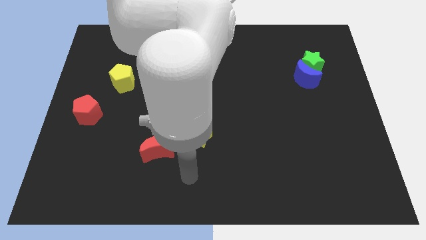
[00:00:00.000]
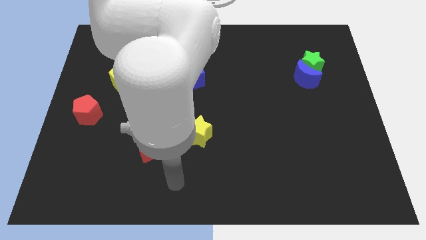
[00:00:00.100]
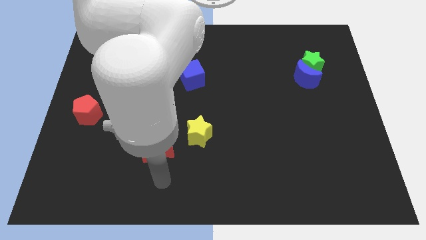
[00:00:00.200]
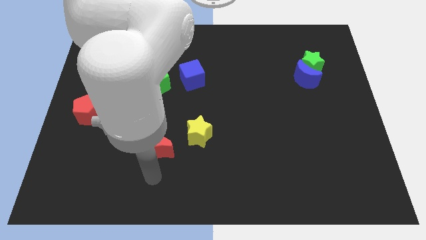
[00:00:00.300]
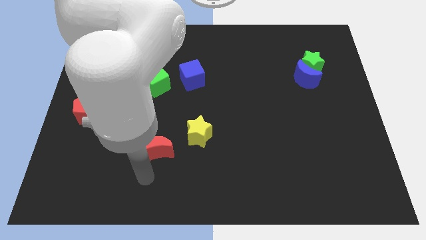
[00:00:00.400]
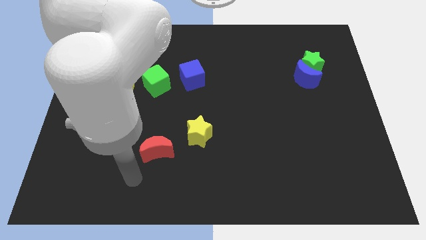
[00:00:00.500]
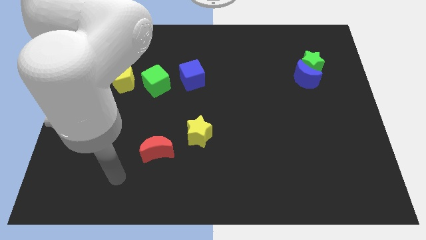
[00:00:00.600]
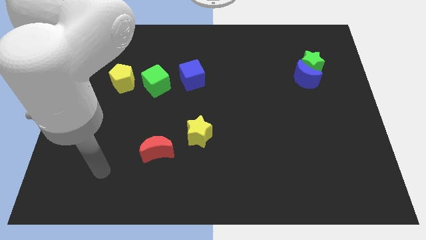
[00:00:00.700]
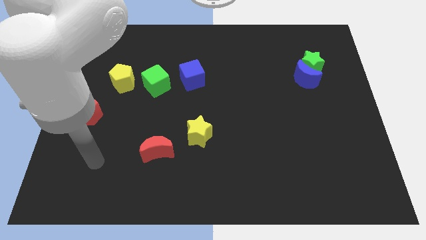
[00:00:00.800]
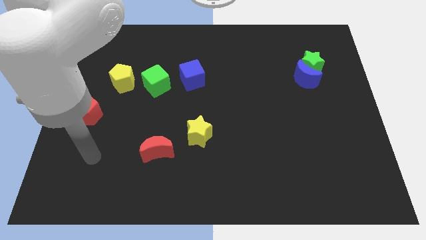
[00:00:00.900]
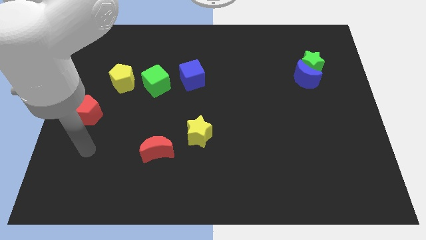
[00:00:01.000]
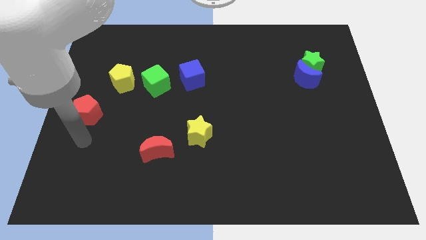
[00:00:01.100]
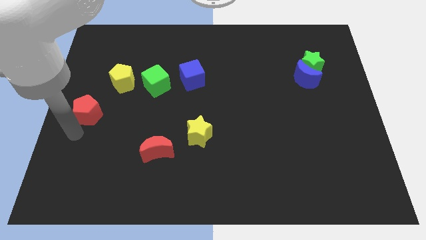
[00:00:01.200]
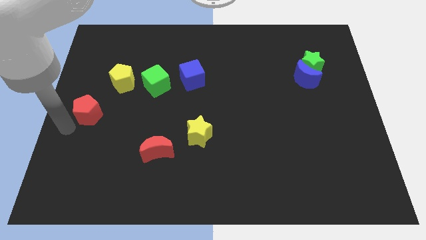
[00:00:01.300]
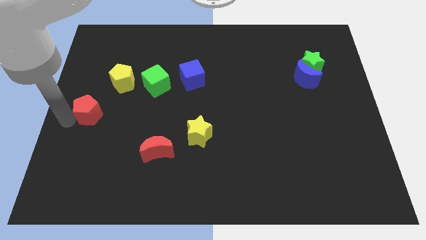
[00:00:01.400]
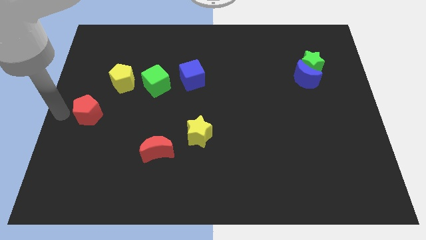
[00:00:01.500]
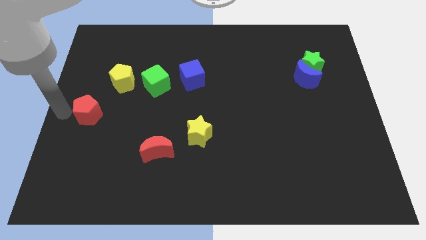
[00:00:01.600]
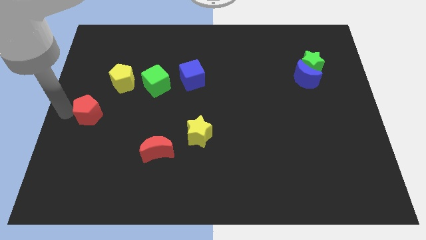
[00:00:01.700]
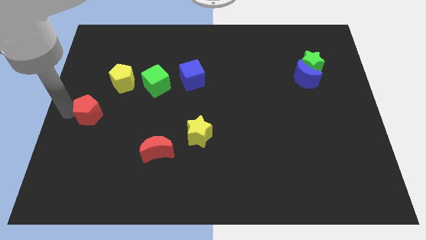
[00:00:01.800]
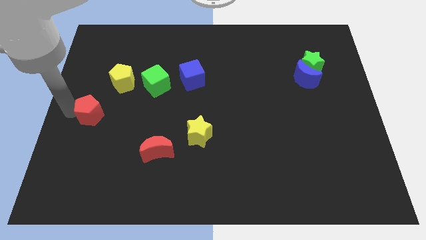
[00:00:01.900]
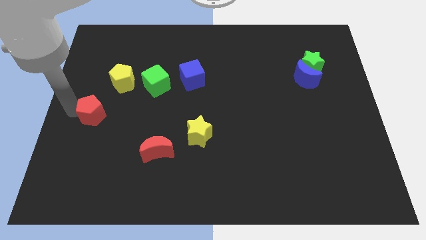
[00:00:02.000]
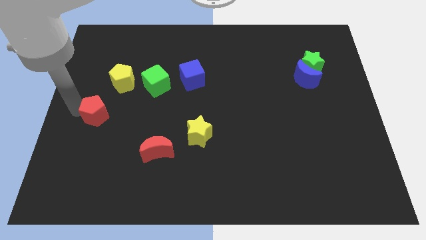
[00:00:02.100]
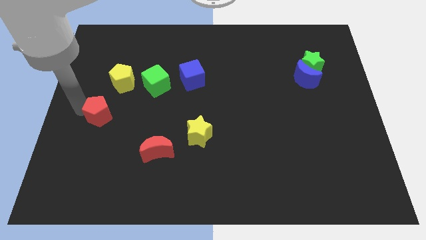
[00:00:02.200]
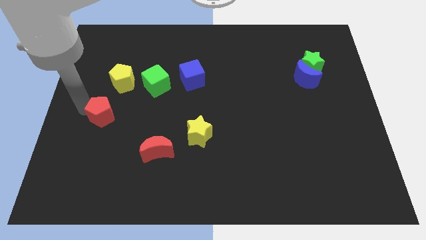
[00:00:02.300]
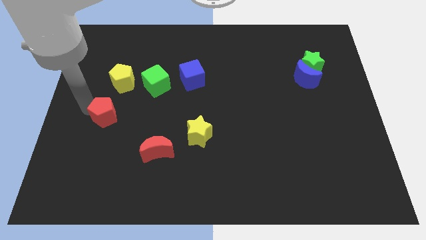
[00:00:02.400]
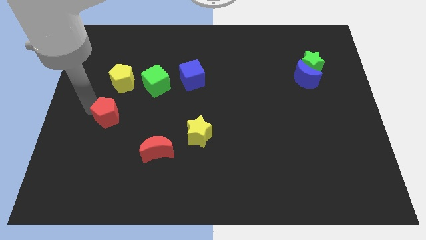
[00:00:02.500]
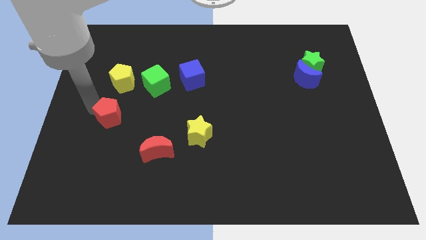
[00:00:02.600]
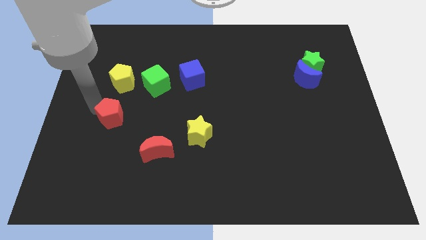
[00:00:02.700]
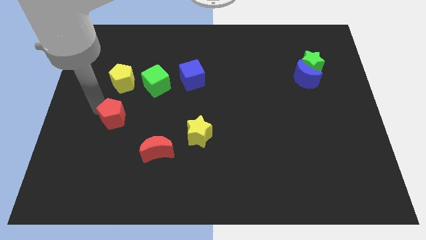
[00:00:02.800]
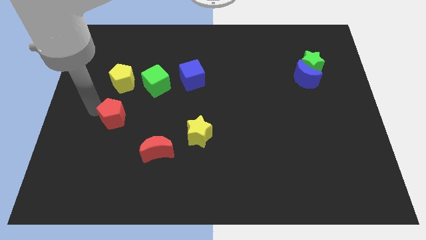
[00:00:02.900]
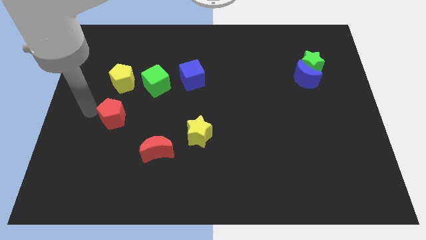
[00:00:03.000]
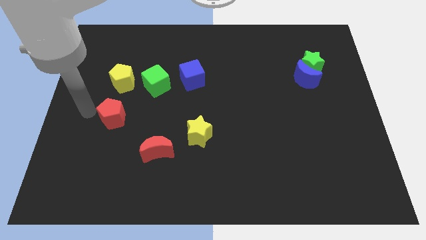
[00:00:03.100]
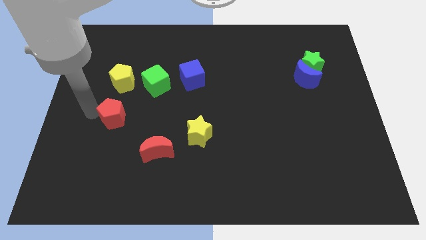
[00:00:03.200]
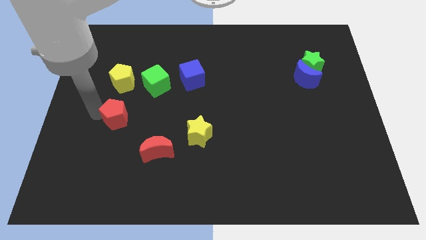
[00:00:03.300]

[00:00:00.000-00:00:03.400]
slightly move the red pentagon to the right

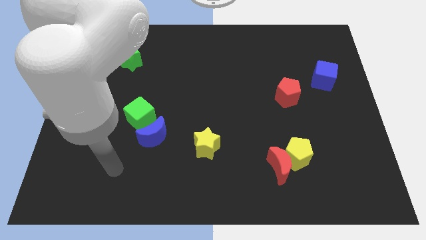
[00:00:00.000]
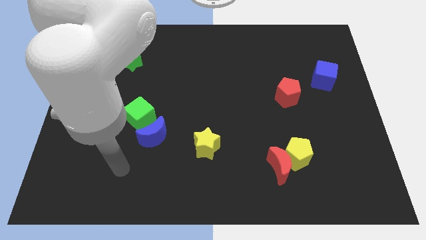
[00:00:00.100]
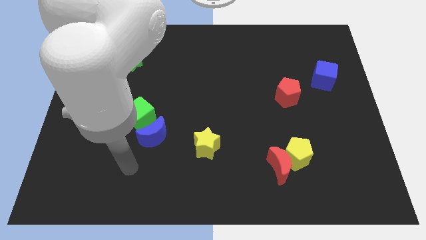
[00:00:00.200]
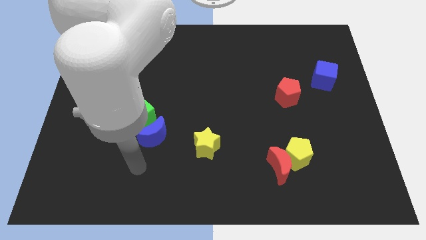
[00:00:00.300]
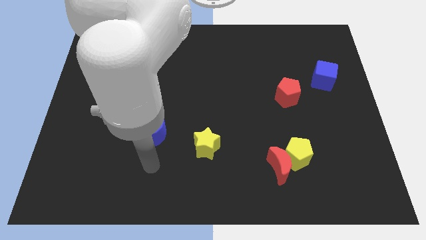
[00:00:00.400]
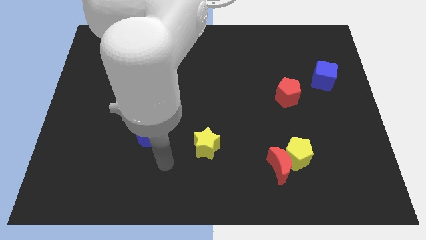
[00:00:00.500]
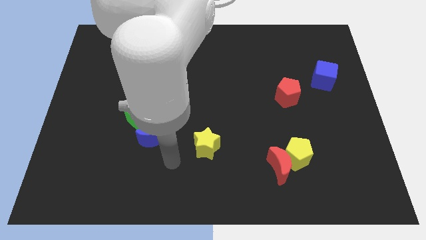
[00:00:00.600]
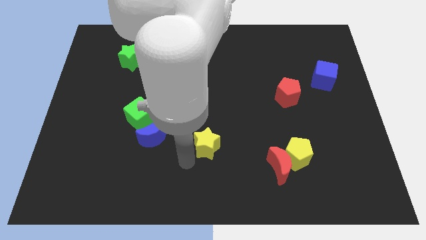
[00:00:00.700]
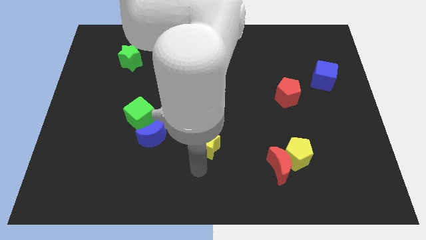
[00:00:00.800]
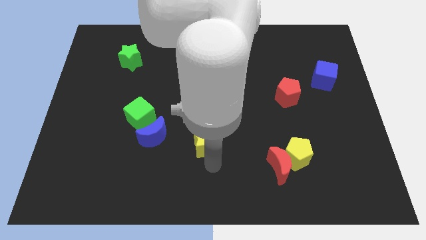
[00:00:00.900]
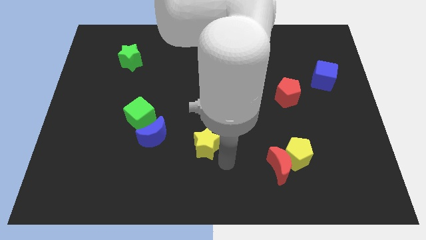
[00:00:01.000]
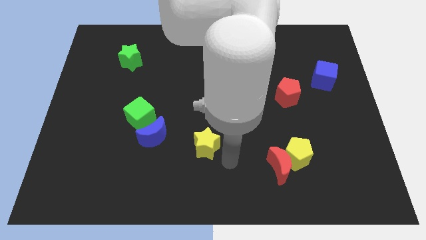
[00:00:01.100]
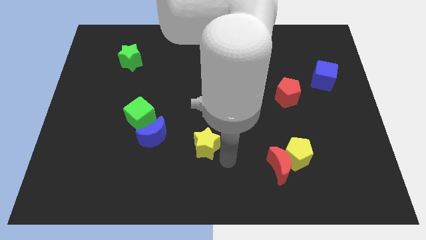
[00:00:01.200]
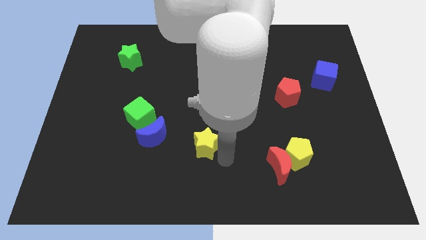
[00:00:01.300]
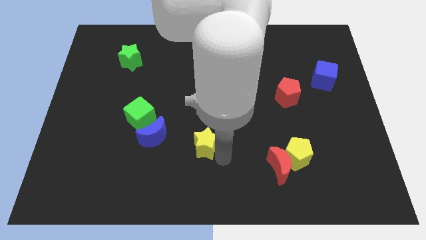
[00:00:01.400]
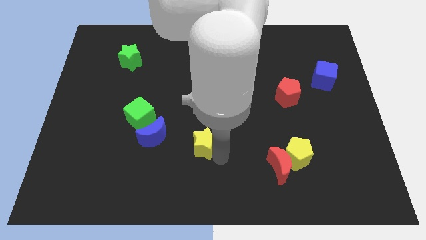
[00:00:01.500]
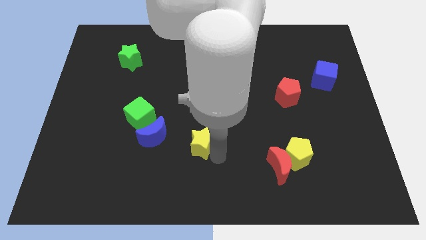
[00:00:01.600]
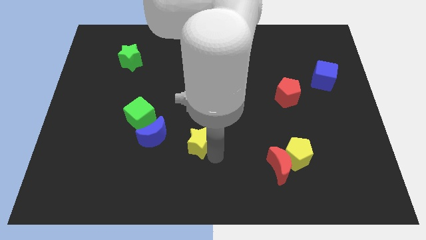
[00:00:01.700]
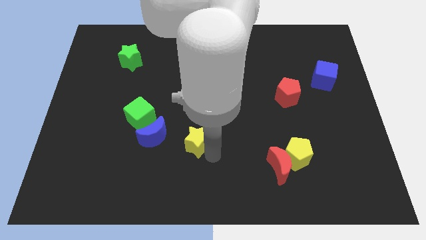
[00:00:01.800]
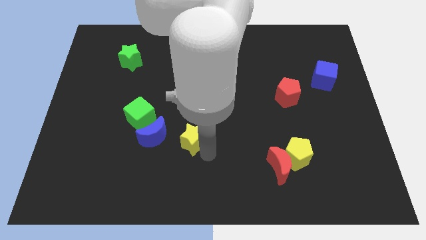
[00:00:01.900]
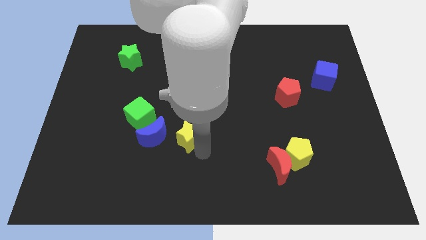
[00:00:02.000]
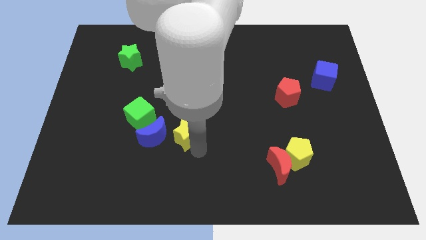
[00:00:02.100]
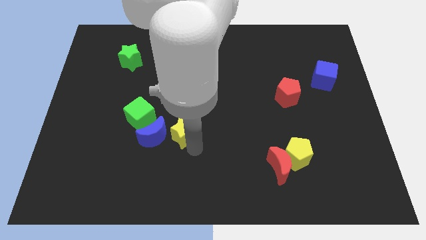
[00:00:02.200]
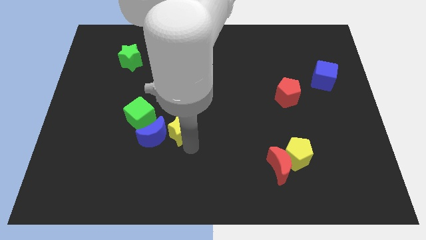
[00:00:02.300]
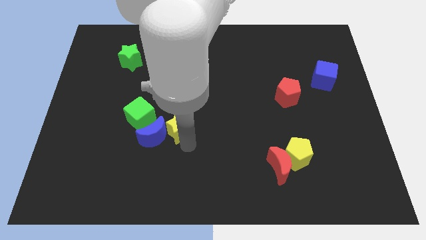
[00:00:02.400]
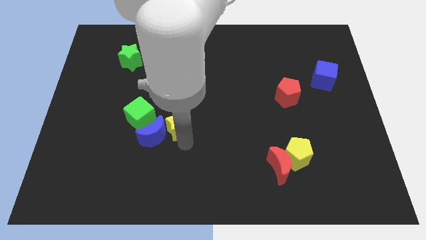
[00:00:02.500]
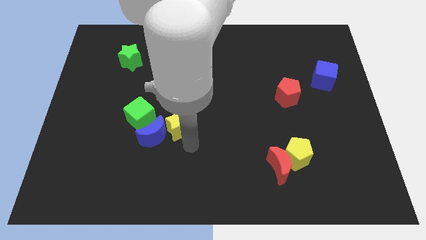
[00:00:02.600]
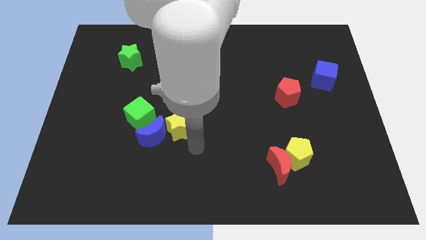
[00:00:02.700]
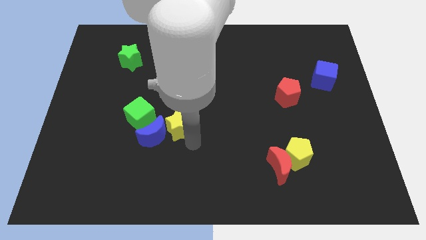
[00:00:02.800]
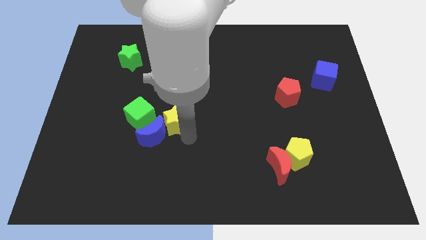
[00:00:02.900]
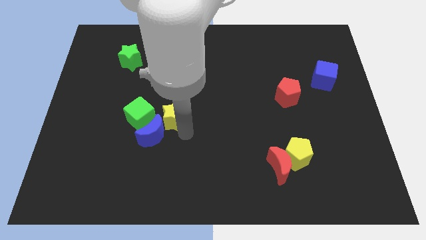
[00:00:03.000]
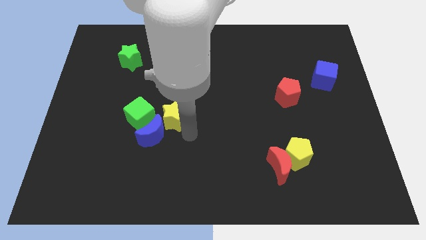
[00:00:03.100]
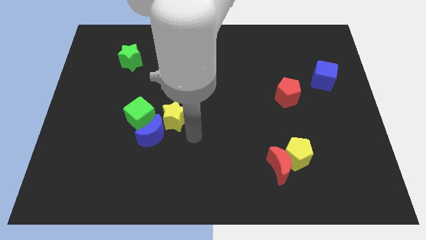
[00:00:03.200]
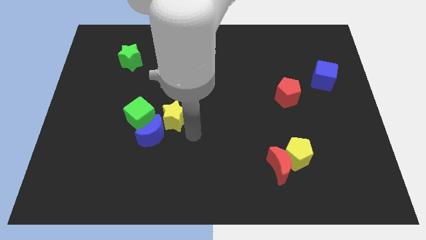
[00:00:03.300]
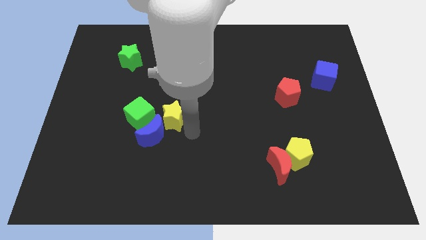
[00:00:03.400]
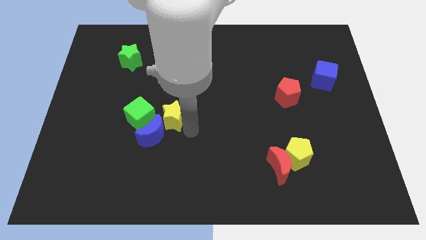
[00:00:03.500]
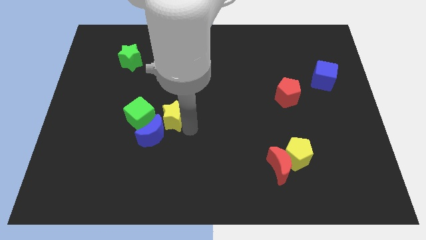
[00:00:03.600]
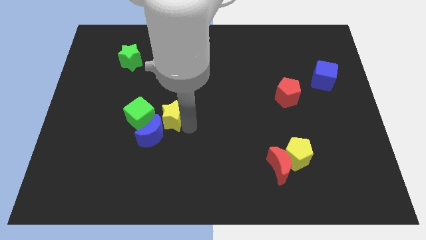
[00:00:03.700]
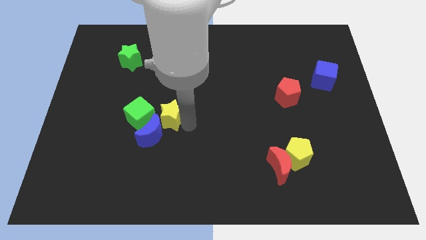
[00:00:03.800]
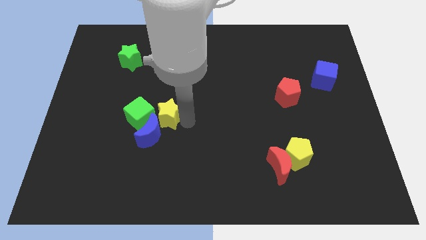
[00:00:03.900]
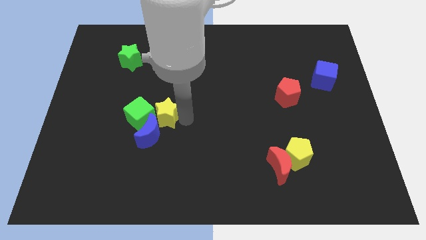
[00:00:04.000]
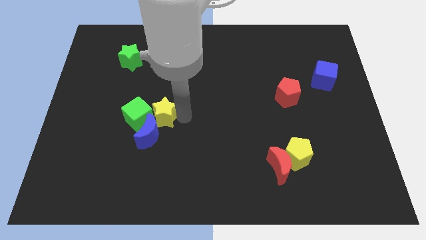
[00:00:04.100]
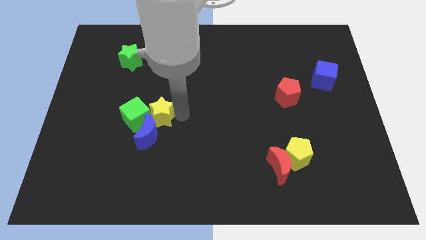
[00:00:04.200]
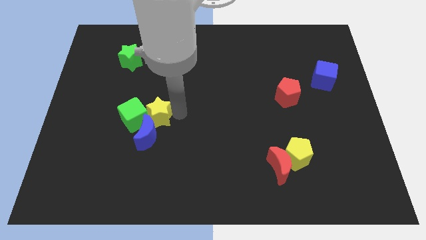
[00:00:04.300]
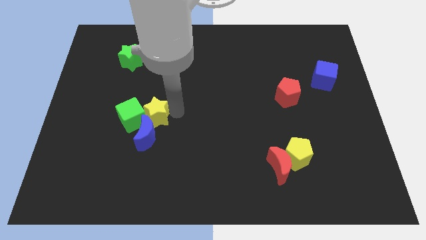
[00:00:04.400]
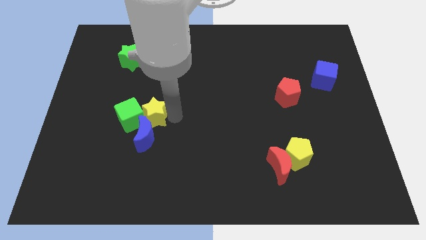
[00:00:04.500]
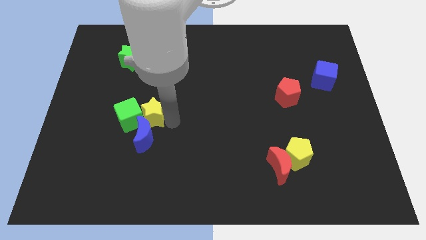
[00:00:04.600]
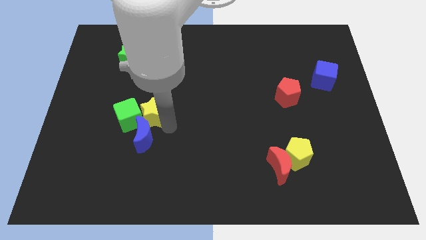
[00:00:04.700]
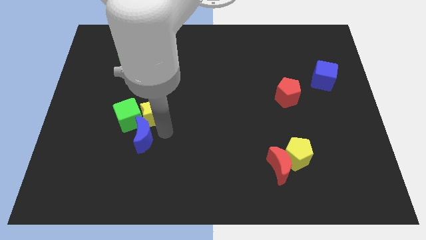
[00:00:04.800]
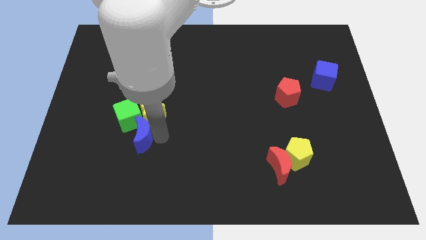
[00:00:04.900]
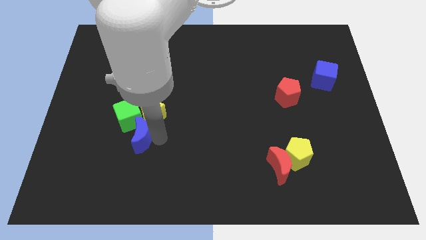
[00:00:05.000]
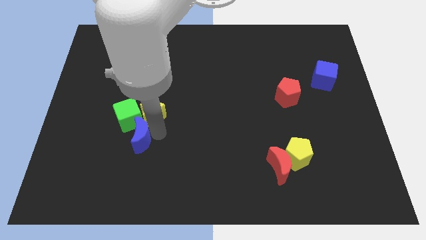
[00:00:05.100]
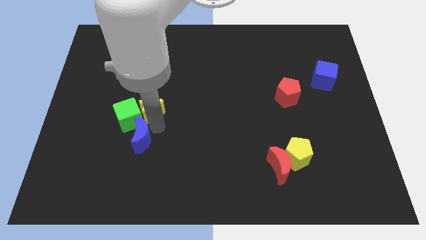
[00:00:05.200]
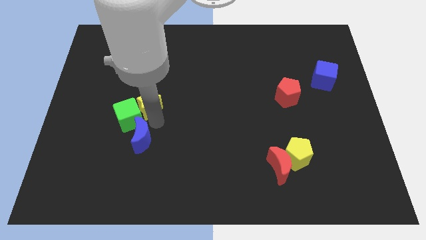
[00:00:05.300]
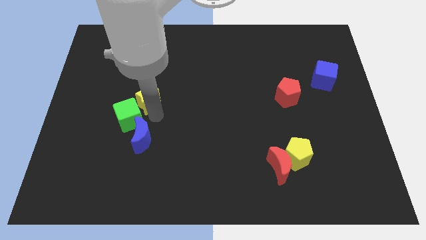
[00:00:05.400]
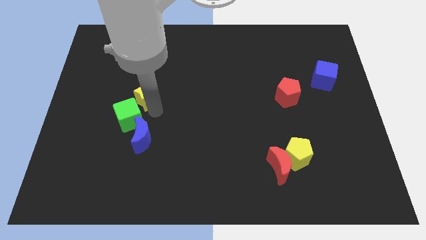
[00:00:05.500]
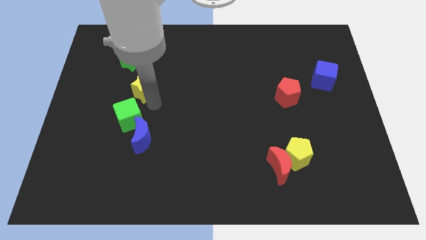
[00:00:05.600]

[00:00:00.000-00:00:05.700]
slide the yellow star diagonally up and left
